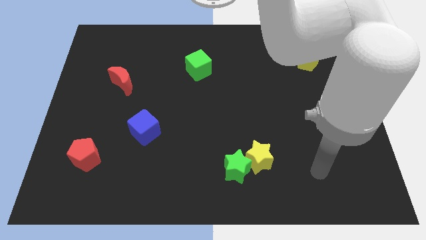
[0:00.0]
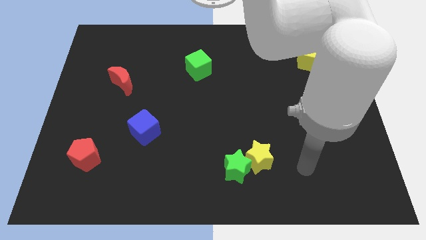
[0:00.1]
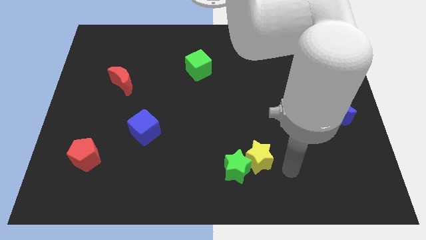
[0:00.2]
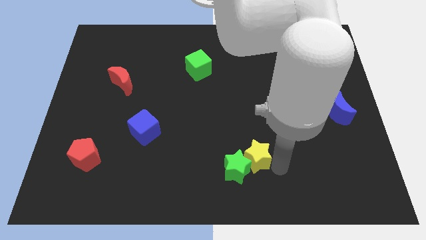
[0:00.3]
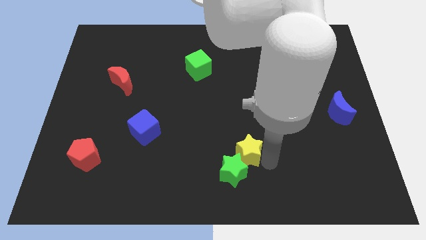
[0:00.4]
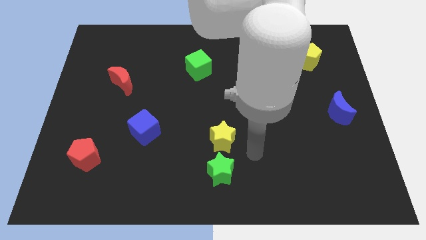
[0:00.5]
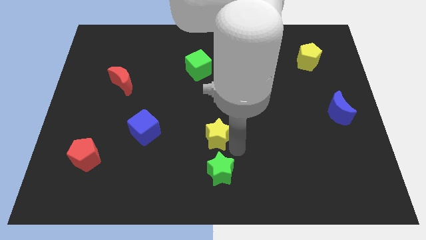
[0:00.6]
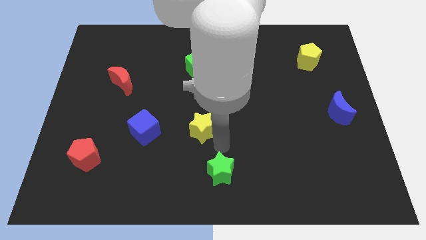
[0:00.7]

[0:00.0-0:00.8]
pull the green star apart from the yellow star

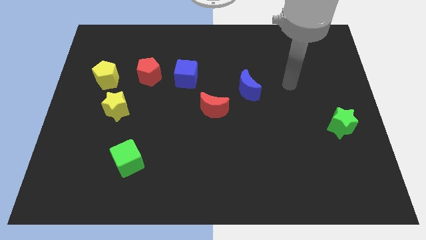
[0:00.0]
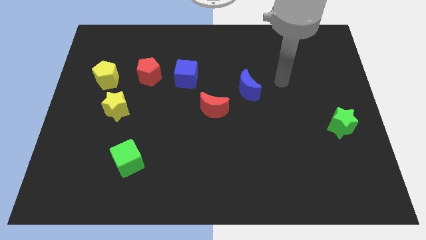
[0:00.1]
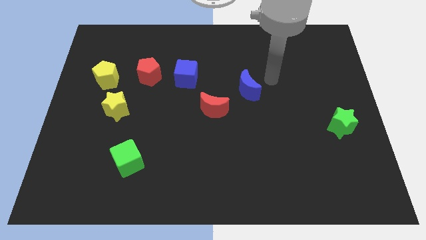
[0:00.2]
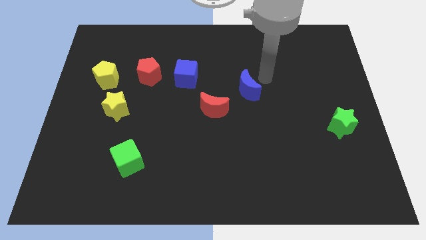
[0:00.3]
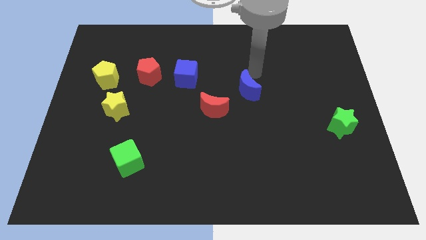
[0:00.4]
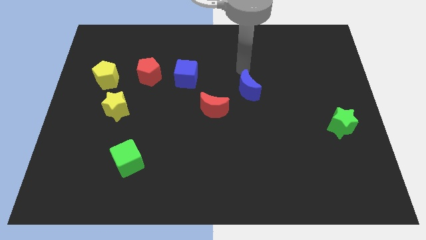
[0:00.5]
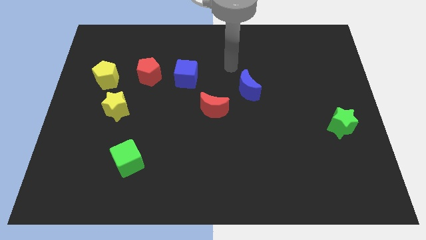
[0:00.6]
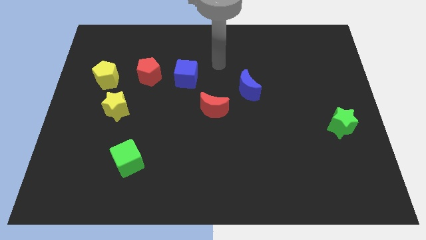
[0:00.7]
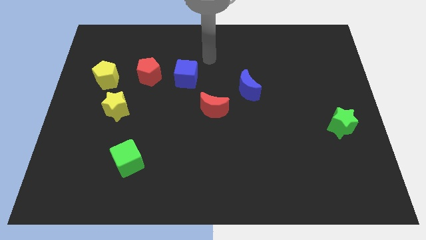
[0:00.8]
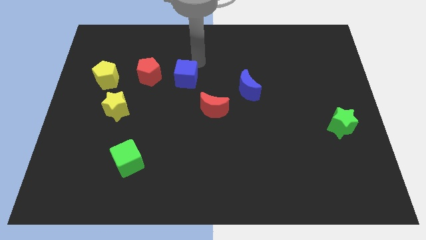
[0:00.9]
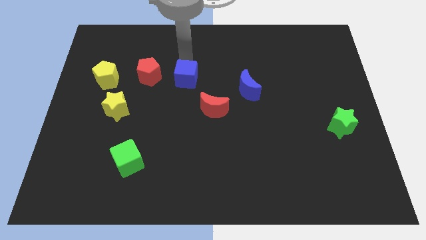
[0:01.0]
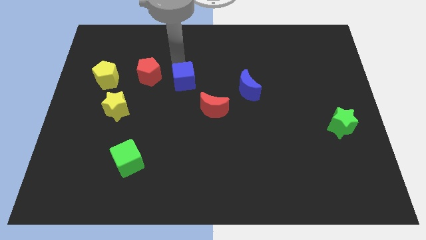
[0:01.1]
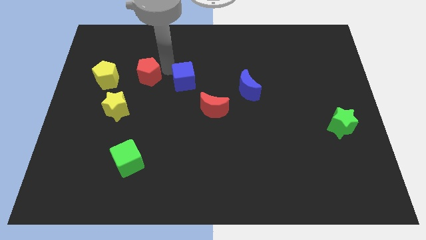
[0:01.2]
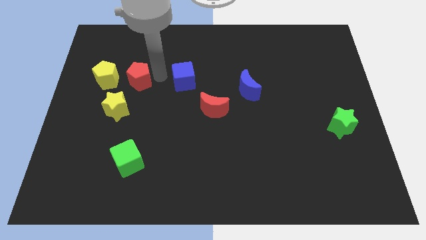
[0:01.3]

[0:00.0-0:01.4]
pull the blue cube apart from the red pentagon

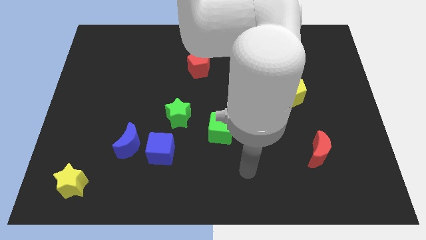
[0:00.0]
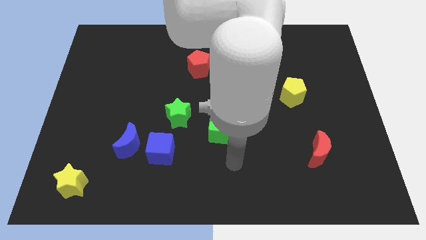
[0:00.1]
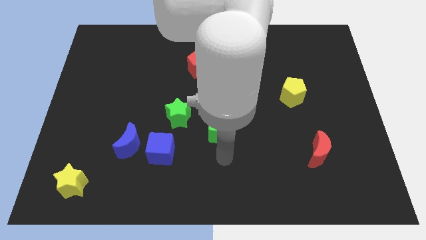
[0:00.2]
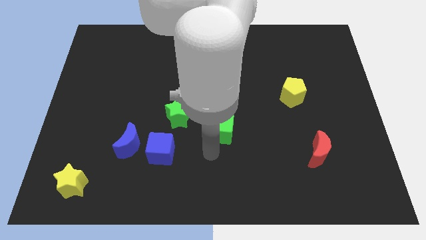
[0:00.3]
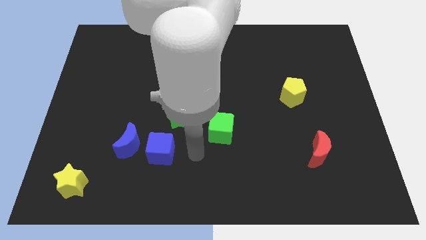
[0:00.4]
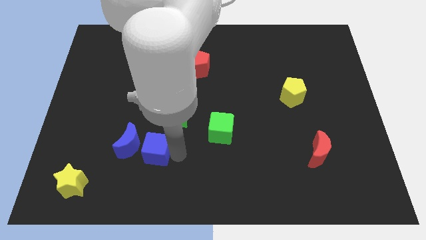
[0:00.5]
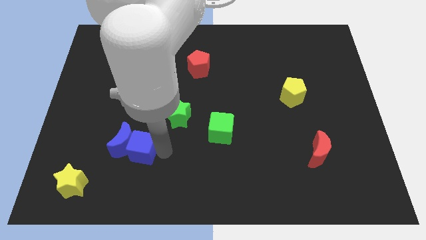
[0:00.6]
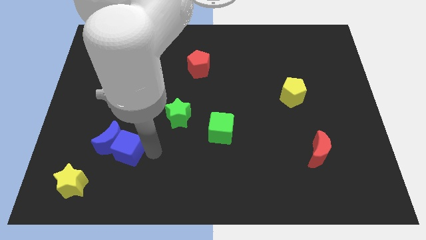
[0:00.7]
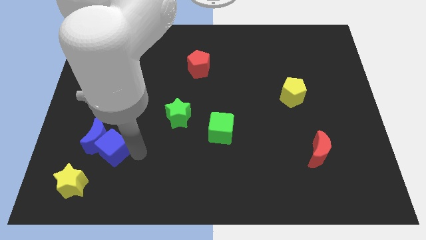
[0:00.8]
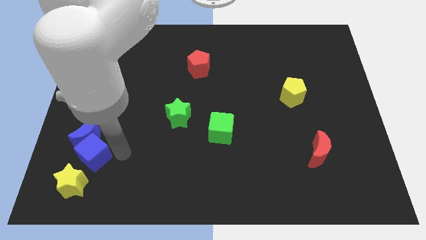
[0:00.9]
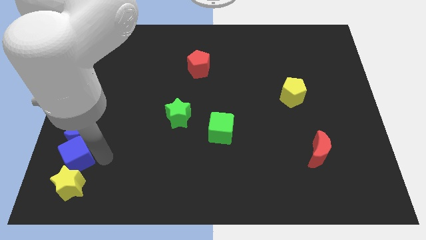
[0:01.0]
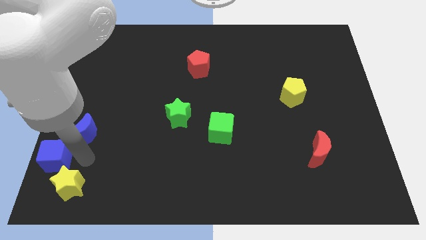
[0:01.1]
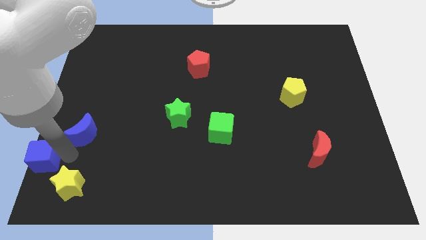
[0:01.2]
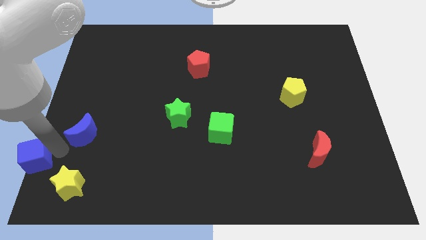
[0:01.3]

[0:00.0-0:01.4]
move the blue moon away from the blue cube

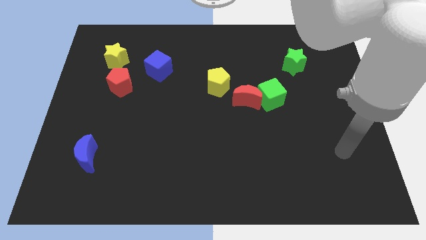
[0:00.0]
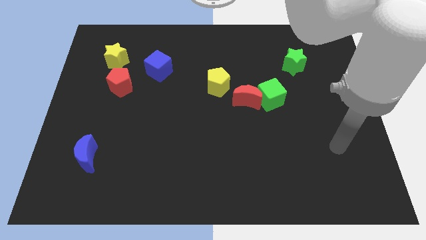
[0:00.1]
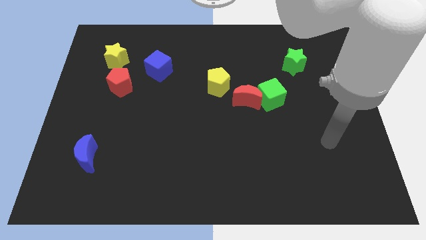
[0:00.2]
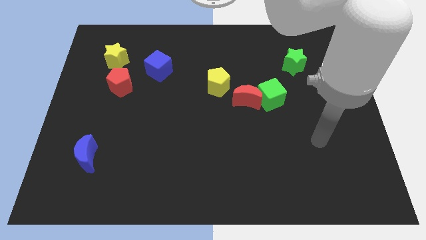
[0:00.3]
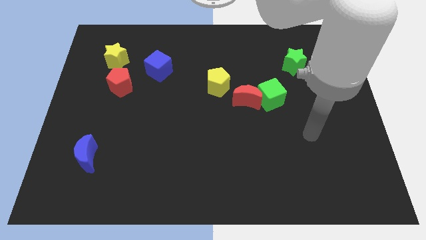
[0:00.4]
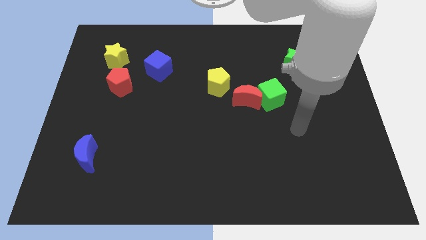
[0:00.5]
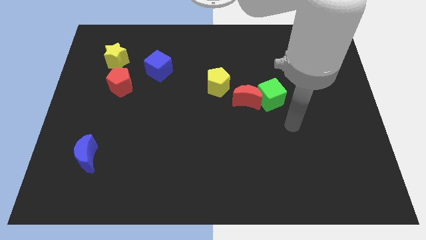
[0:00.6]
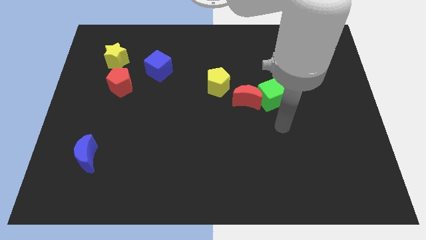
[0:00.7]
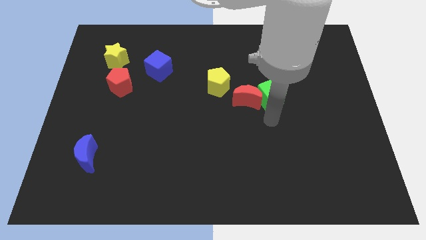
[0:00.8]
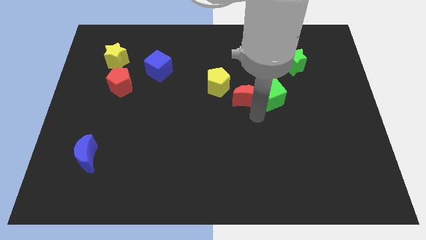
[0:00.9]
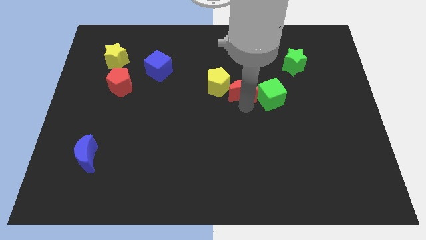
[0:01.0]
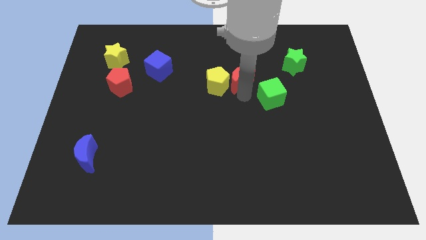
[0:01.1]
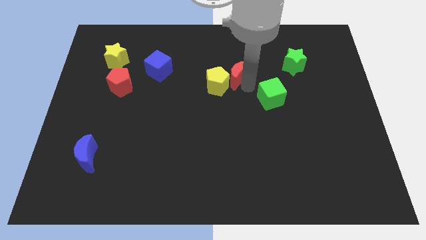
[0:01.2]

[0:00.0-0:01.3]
pull the green cube apart from the red moon

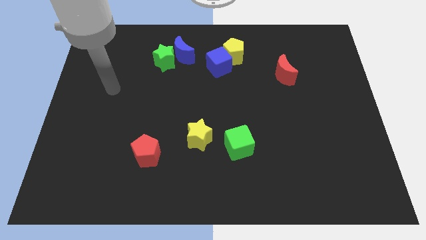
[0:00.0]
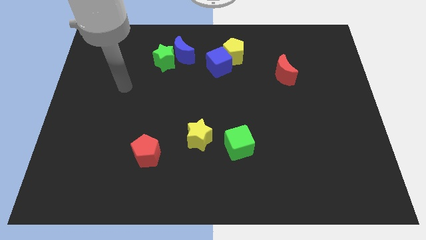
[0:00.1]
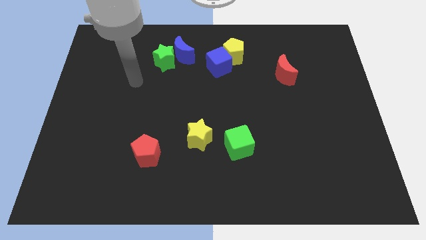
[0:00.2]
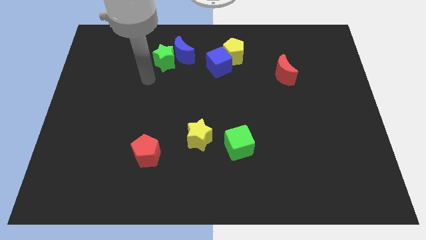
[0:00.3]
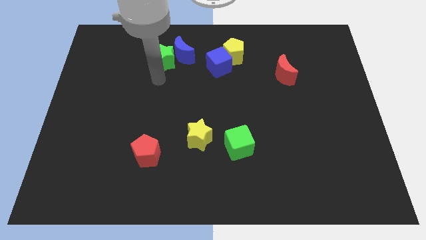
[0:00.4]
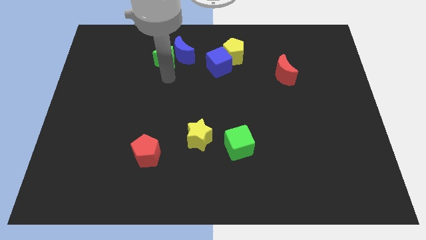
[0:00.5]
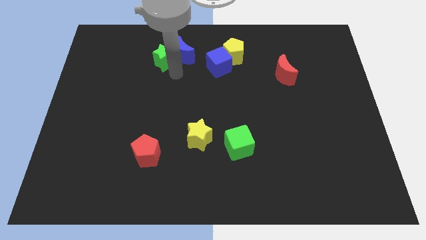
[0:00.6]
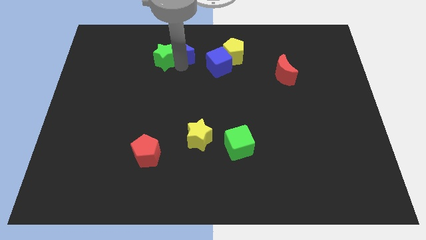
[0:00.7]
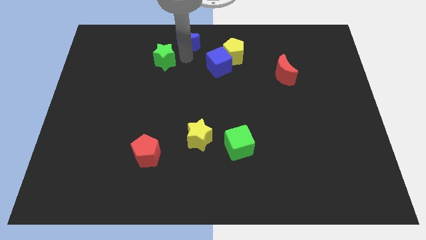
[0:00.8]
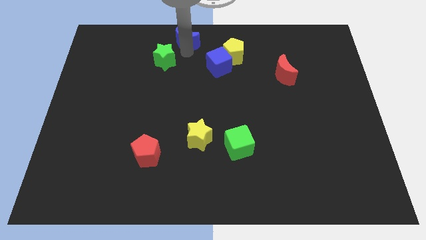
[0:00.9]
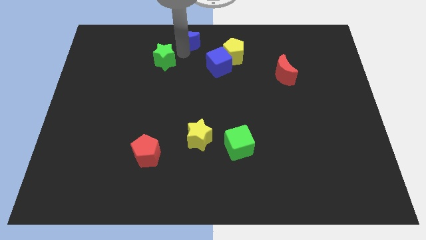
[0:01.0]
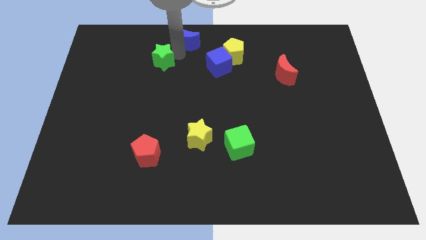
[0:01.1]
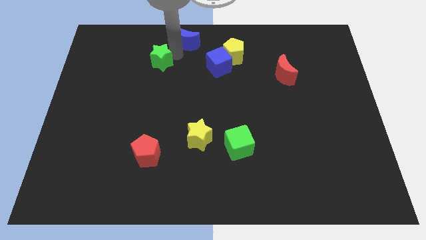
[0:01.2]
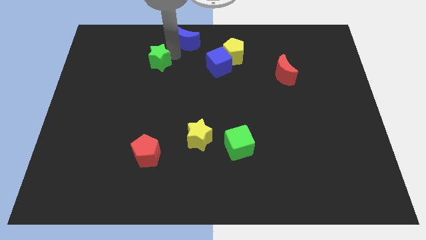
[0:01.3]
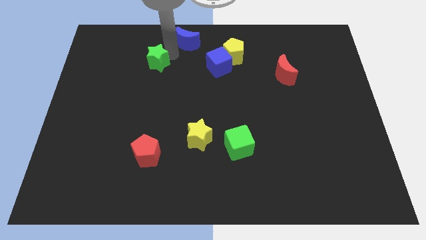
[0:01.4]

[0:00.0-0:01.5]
separate the green star from the blue moon

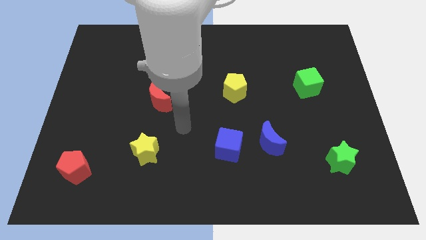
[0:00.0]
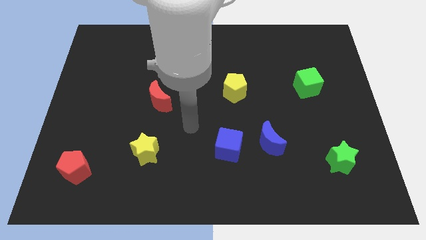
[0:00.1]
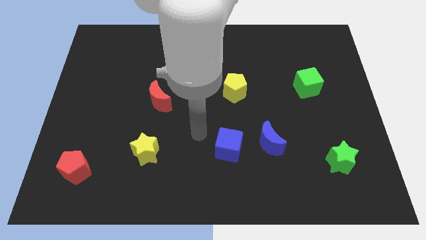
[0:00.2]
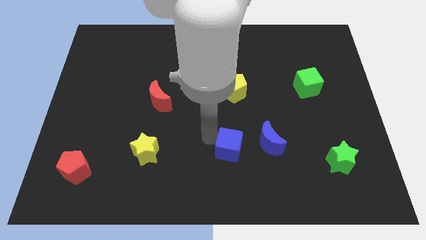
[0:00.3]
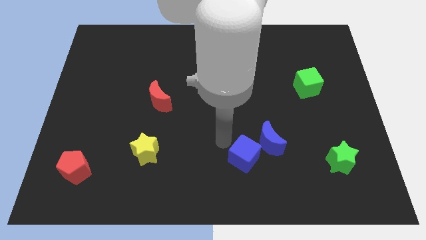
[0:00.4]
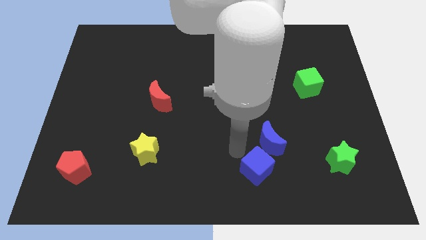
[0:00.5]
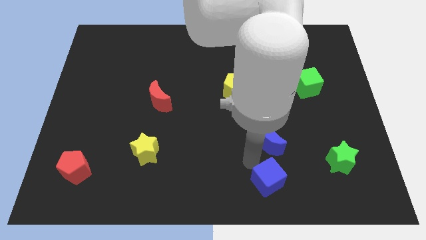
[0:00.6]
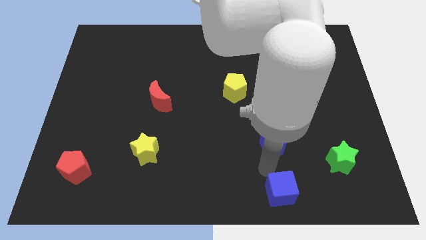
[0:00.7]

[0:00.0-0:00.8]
pull the blue moon apart from the blue cube

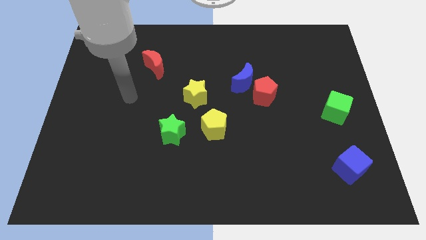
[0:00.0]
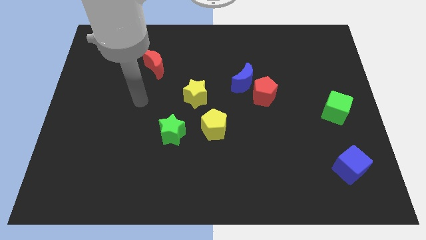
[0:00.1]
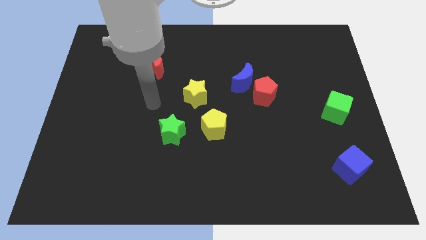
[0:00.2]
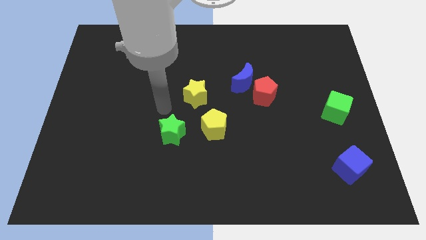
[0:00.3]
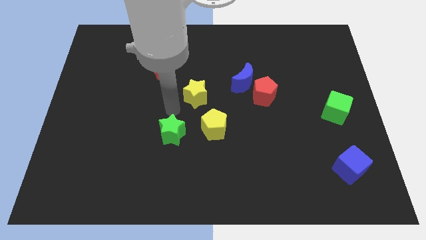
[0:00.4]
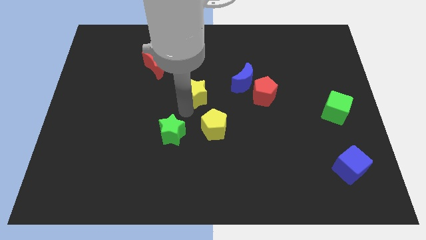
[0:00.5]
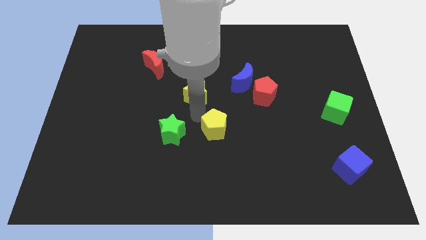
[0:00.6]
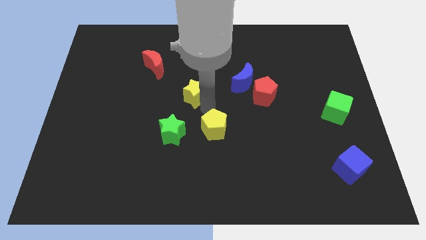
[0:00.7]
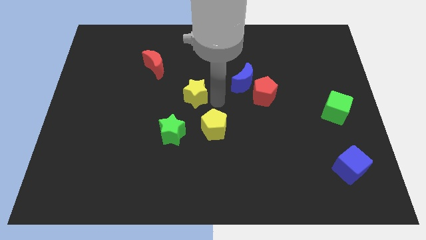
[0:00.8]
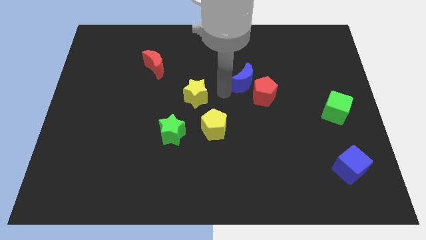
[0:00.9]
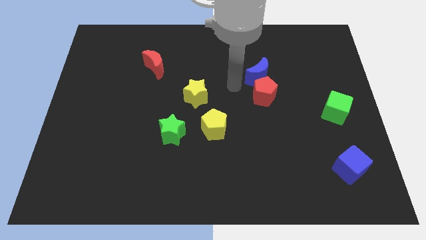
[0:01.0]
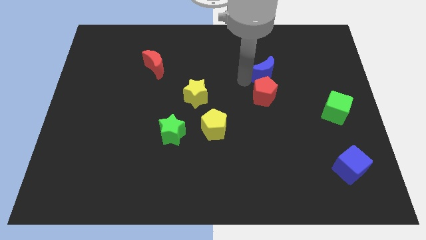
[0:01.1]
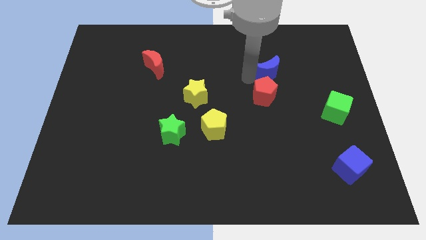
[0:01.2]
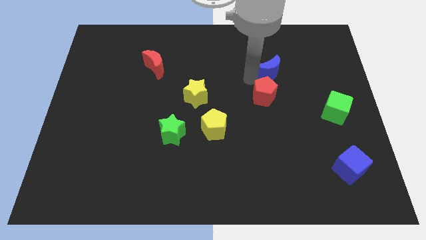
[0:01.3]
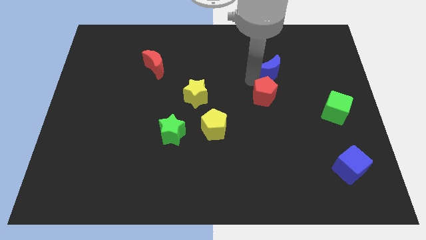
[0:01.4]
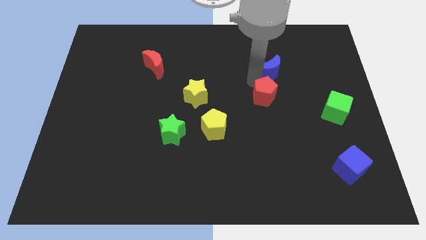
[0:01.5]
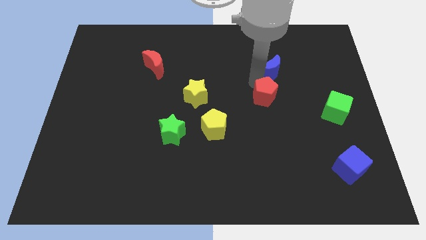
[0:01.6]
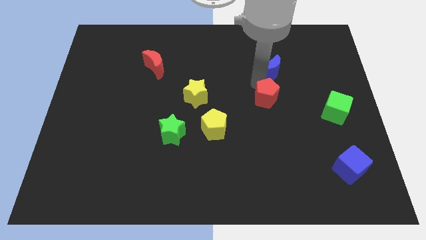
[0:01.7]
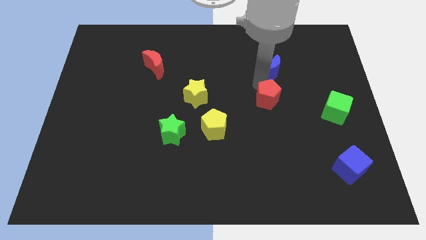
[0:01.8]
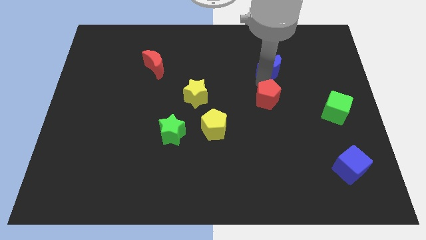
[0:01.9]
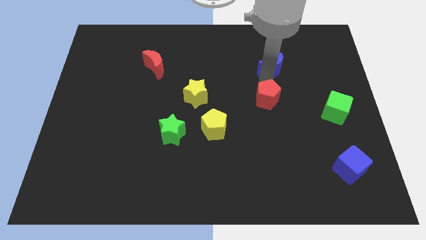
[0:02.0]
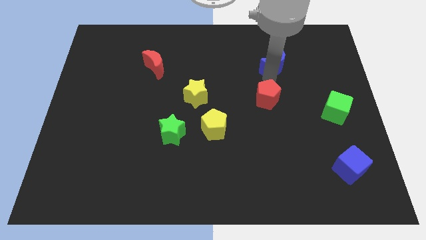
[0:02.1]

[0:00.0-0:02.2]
separate the red pentagon from the blue moon
